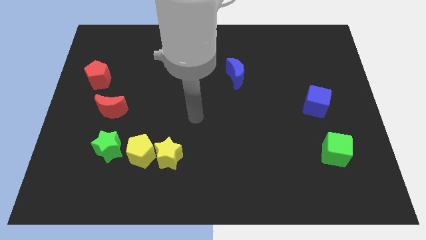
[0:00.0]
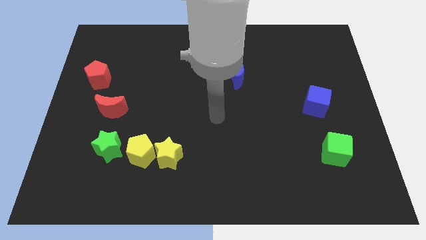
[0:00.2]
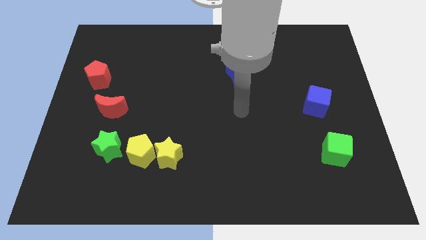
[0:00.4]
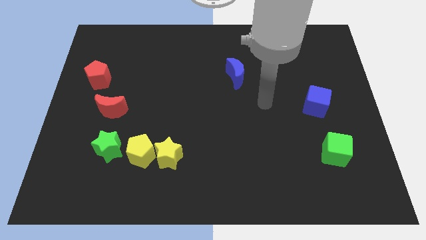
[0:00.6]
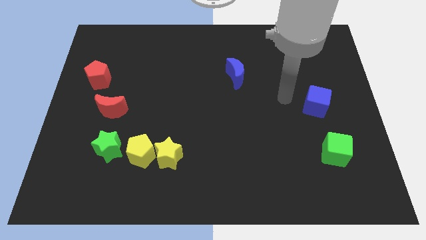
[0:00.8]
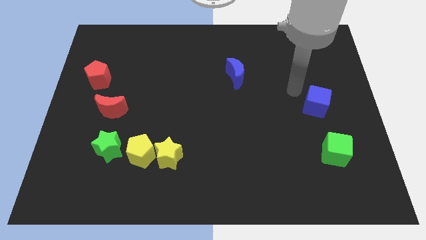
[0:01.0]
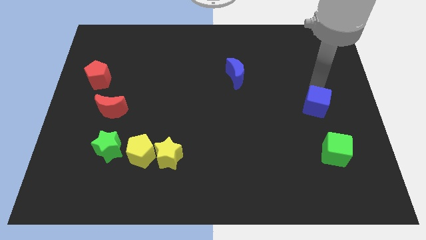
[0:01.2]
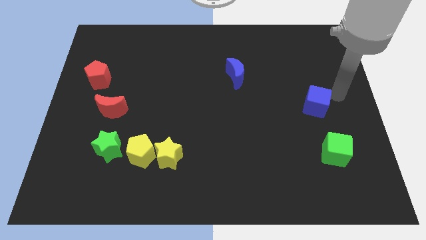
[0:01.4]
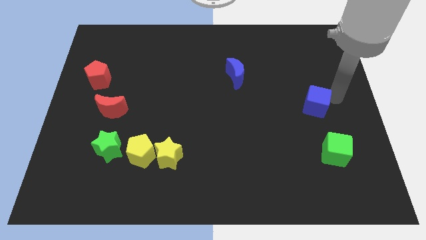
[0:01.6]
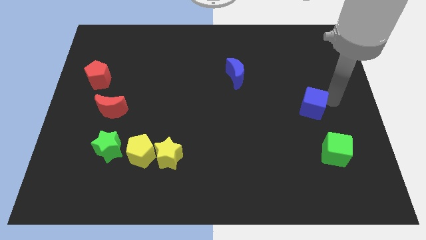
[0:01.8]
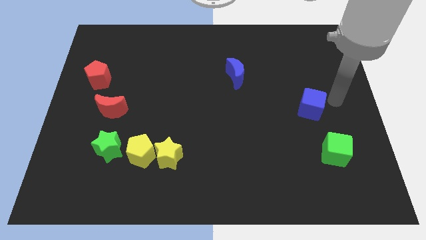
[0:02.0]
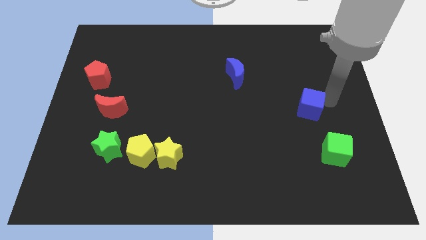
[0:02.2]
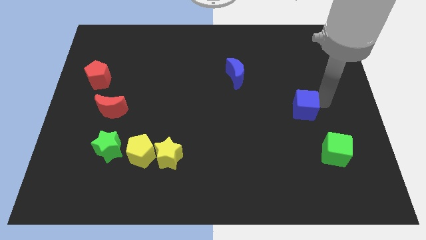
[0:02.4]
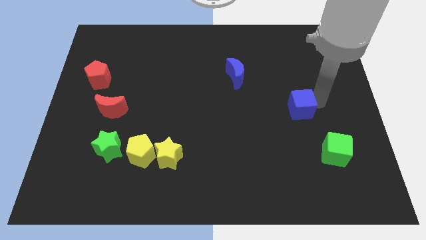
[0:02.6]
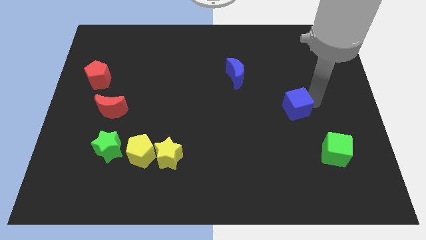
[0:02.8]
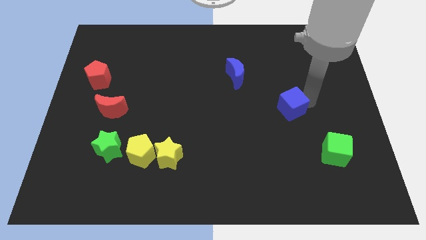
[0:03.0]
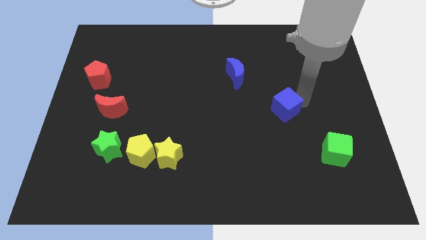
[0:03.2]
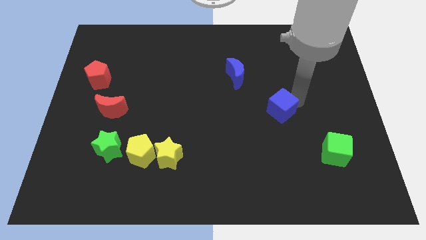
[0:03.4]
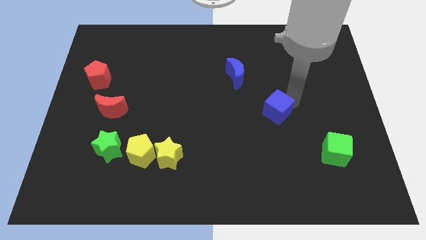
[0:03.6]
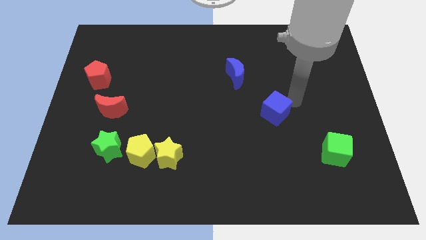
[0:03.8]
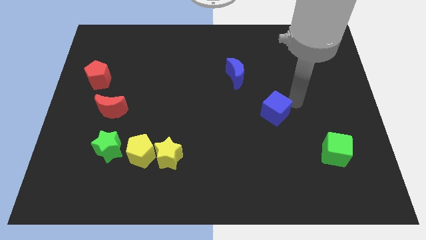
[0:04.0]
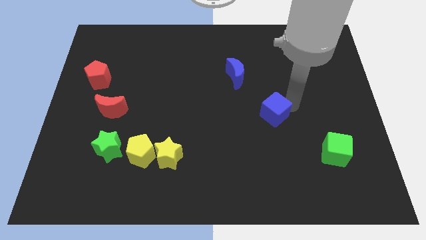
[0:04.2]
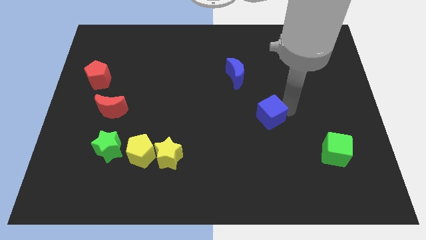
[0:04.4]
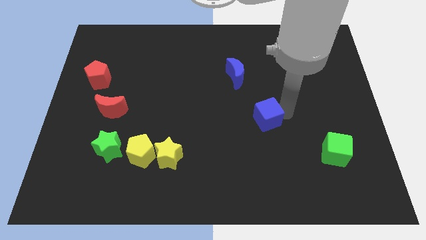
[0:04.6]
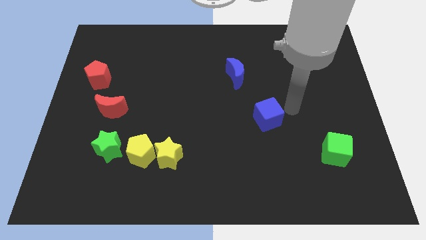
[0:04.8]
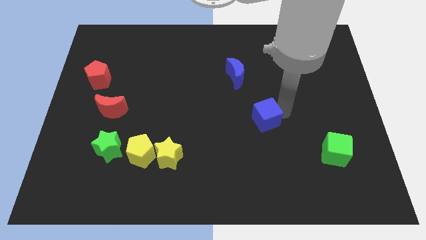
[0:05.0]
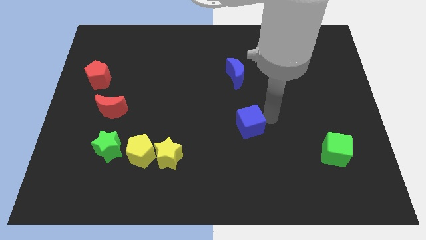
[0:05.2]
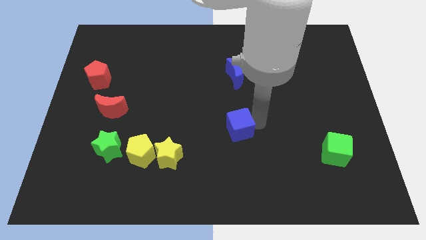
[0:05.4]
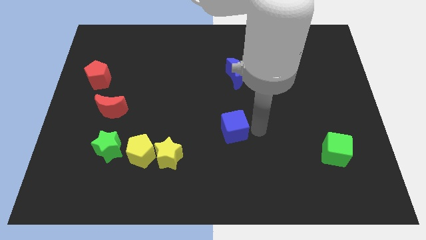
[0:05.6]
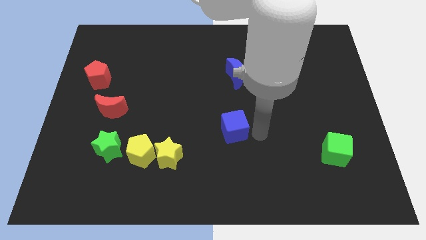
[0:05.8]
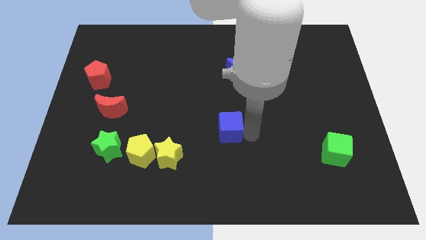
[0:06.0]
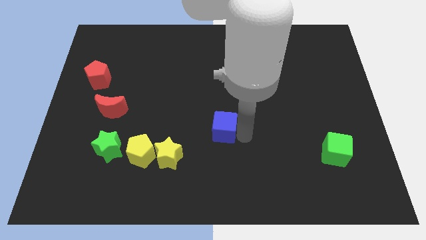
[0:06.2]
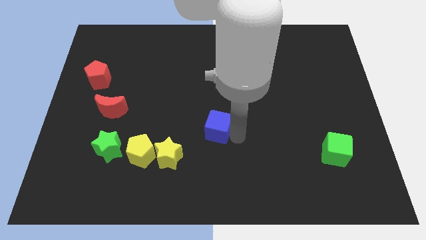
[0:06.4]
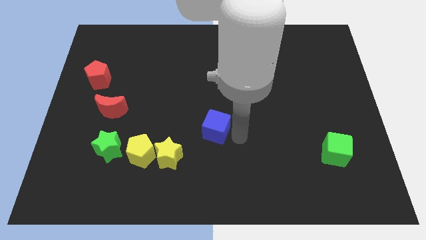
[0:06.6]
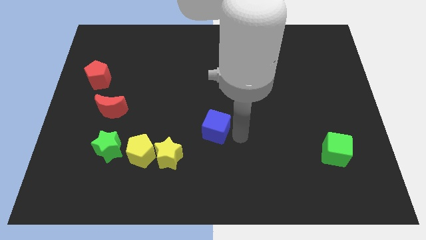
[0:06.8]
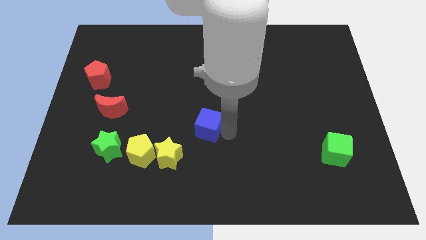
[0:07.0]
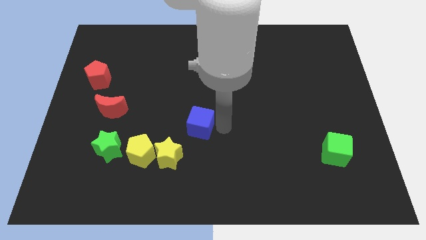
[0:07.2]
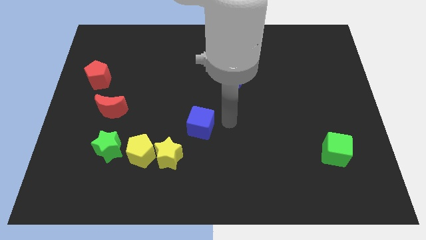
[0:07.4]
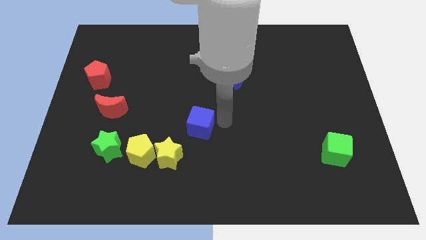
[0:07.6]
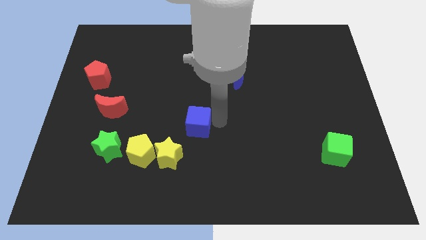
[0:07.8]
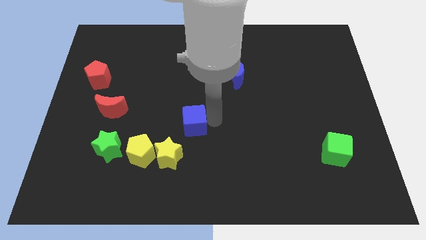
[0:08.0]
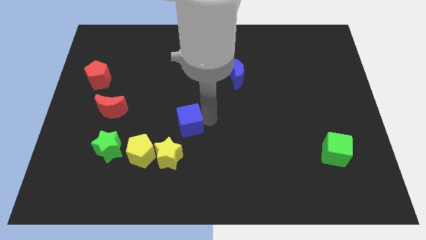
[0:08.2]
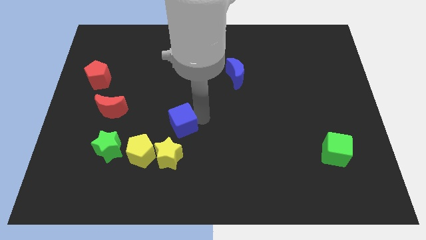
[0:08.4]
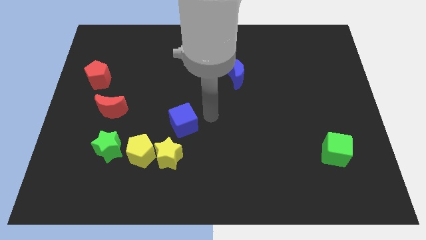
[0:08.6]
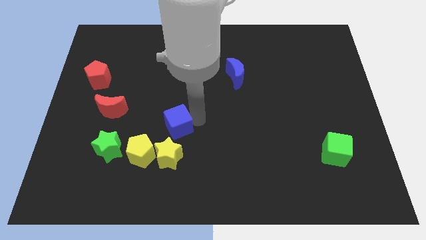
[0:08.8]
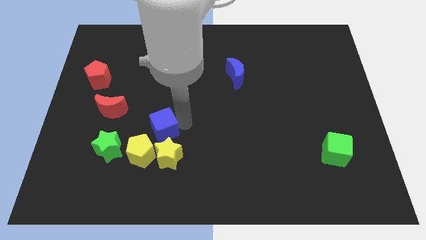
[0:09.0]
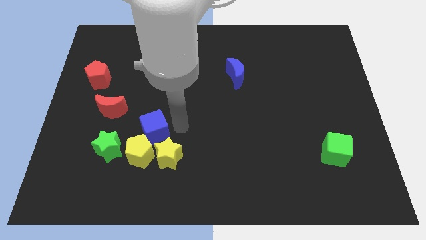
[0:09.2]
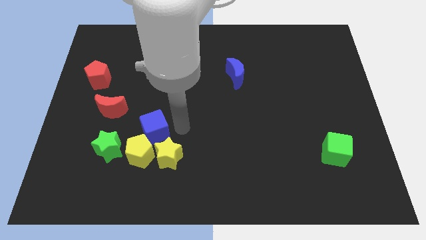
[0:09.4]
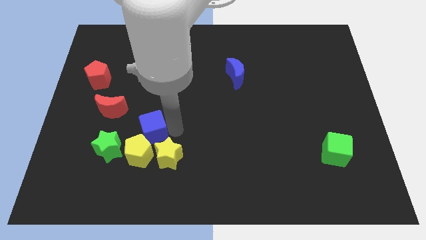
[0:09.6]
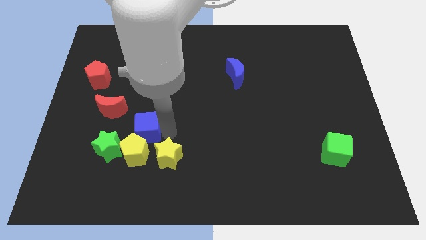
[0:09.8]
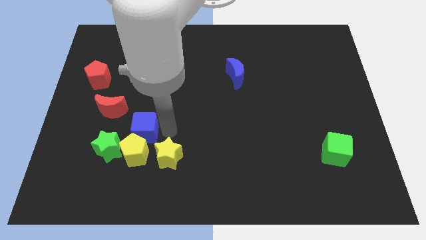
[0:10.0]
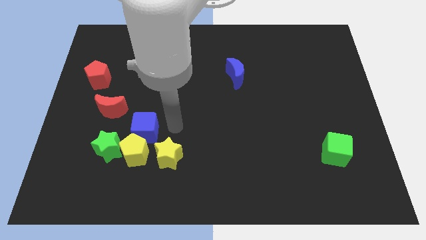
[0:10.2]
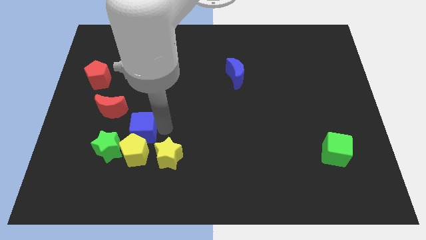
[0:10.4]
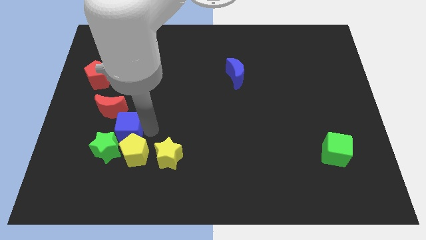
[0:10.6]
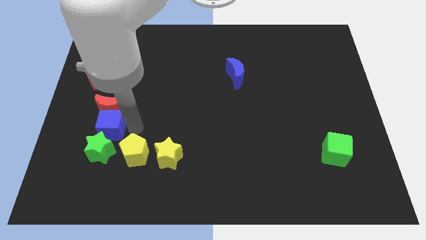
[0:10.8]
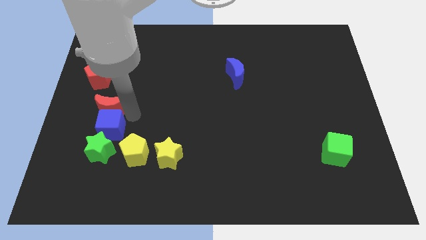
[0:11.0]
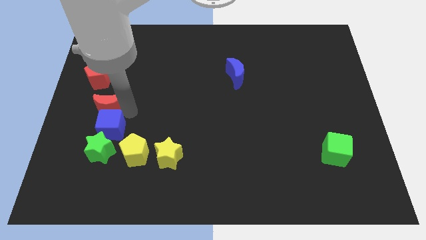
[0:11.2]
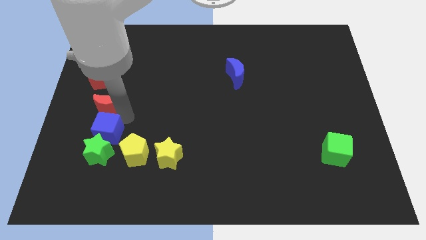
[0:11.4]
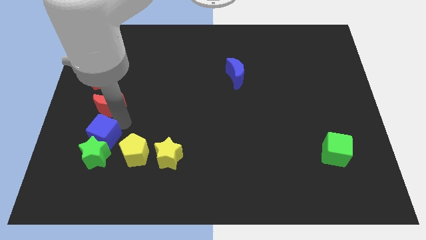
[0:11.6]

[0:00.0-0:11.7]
slide the blue cube left of the yellow pentagon

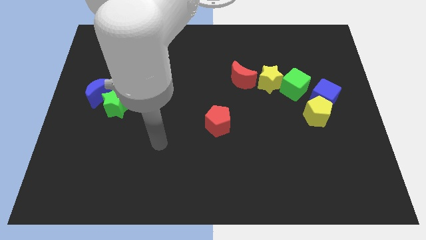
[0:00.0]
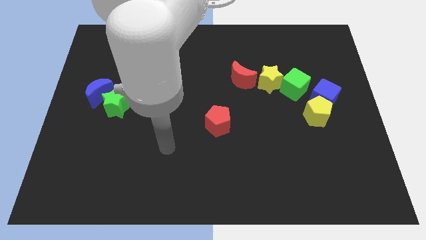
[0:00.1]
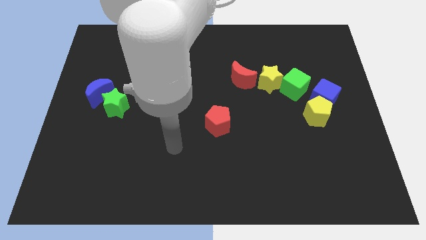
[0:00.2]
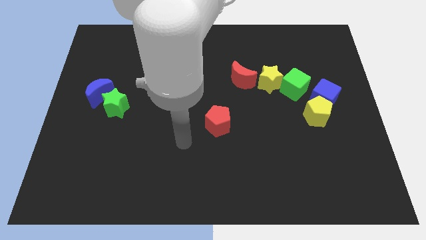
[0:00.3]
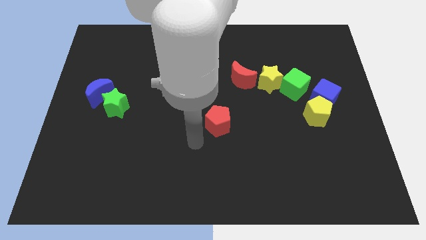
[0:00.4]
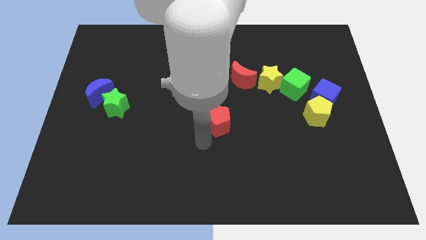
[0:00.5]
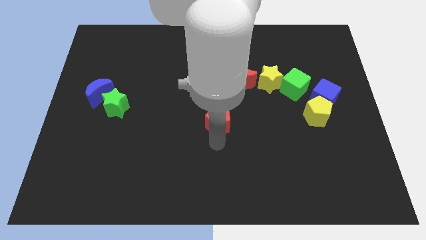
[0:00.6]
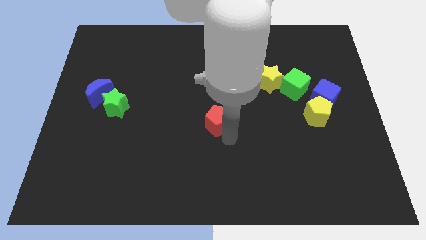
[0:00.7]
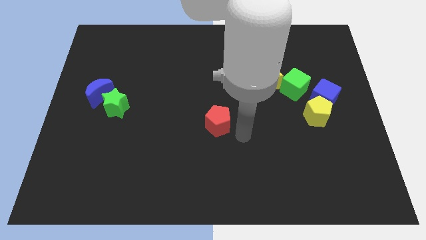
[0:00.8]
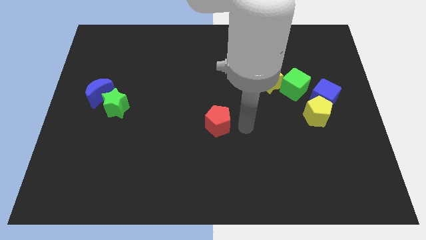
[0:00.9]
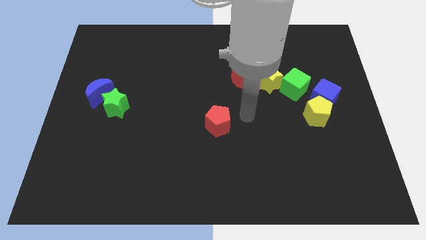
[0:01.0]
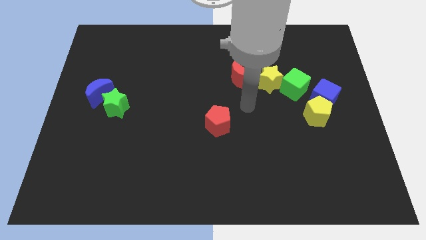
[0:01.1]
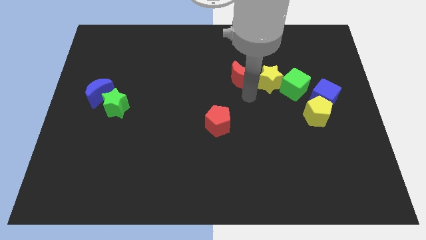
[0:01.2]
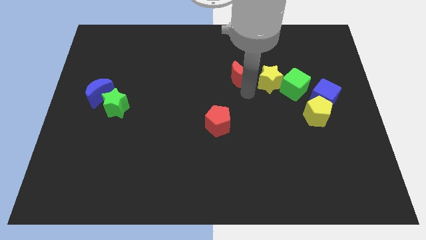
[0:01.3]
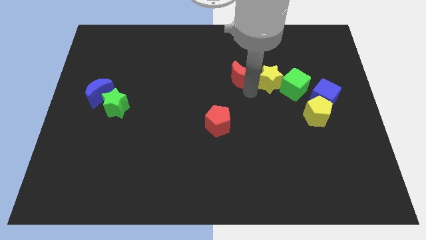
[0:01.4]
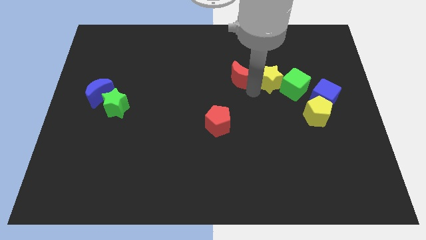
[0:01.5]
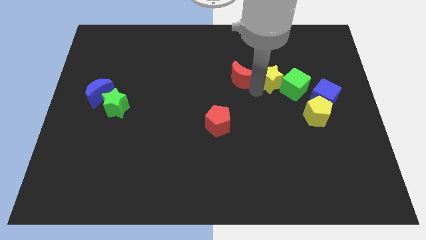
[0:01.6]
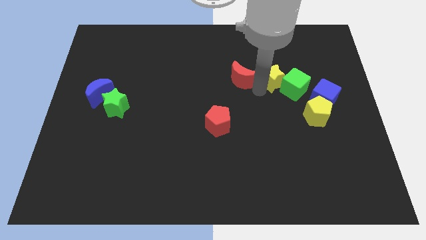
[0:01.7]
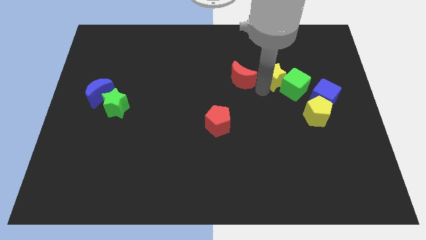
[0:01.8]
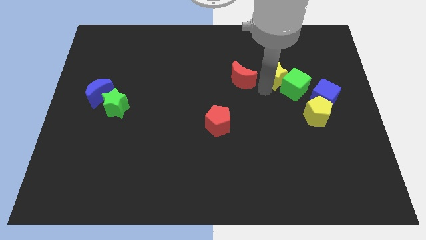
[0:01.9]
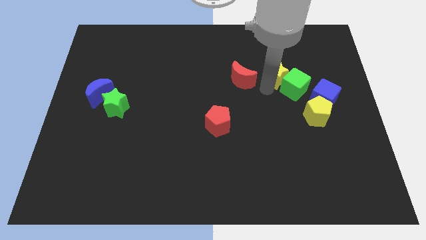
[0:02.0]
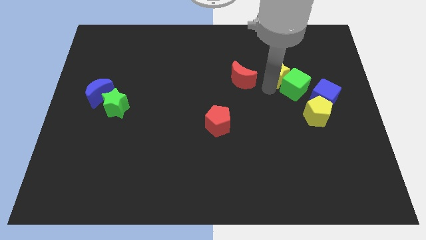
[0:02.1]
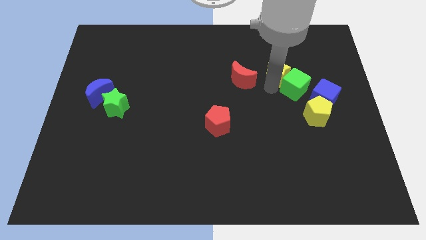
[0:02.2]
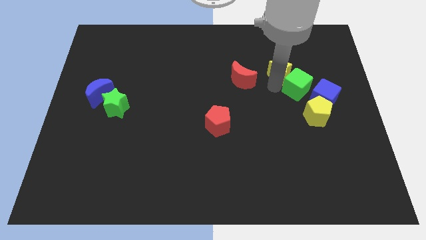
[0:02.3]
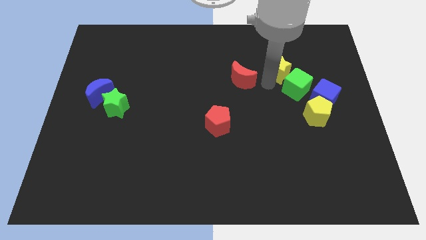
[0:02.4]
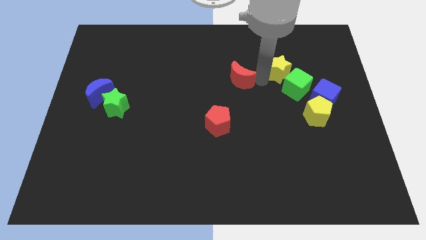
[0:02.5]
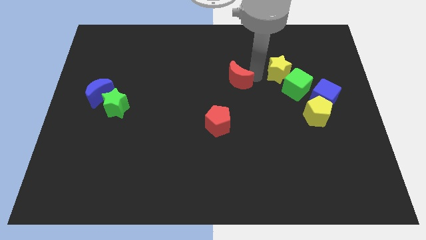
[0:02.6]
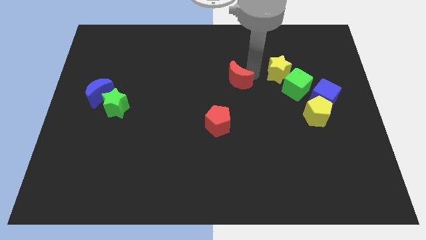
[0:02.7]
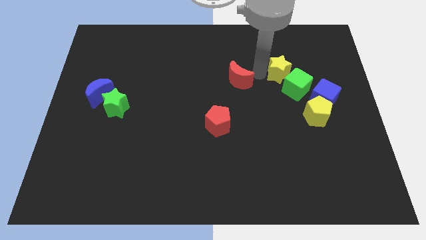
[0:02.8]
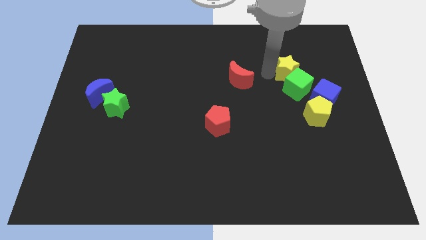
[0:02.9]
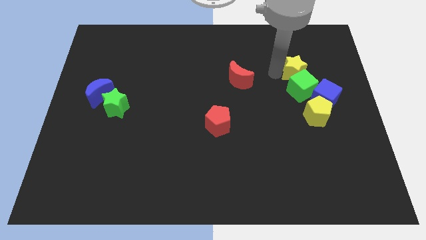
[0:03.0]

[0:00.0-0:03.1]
push the yellow star diagonally up and to the right of the green cube
